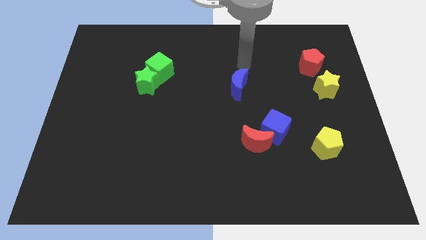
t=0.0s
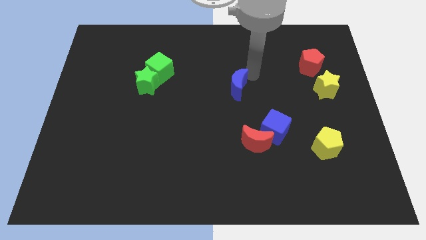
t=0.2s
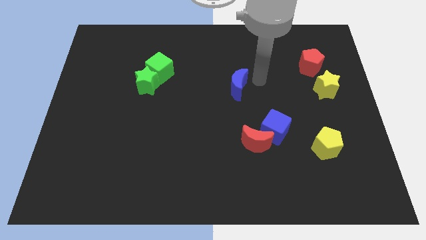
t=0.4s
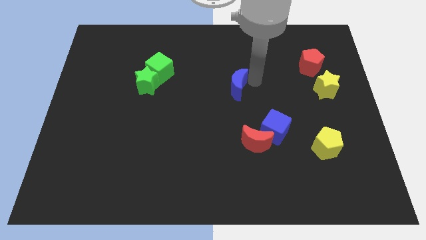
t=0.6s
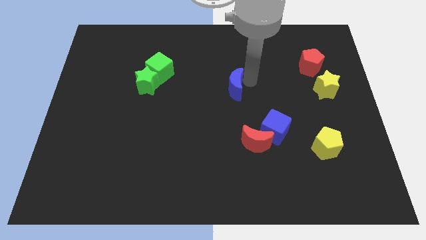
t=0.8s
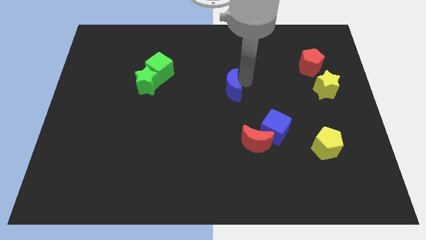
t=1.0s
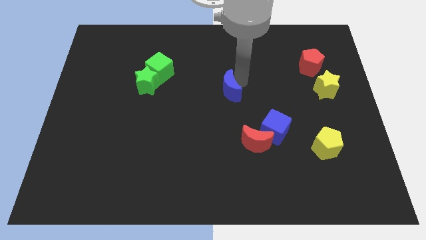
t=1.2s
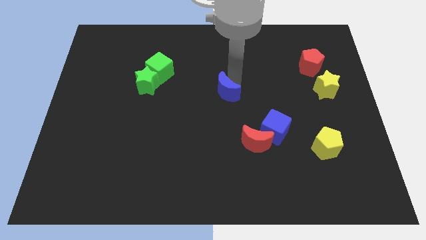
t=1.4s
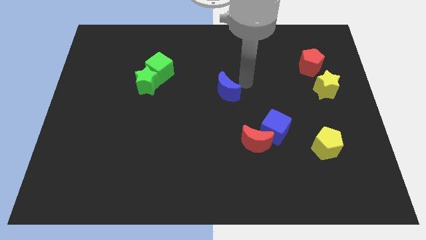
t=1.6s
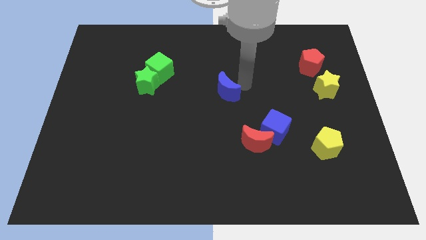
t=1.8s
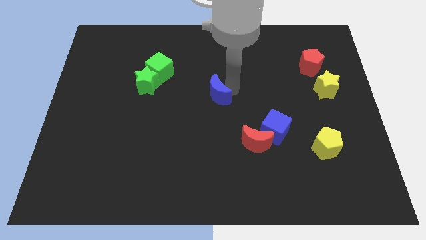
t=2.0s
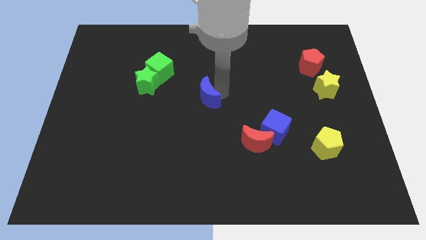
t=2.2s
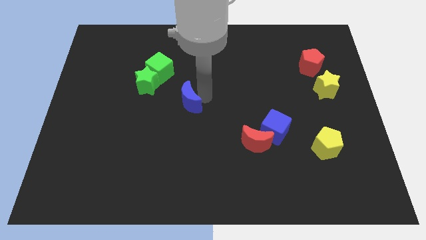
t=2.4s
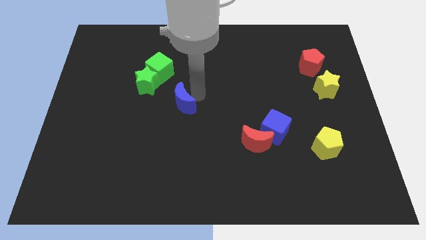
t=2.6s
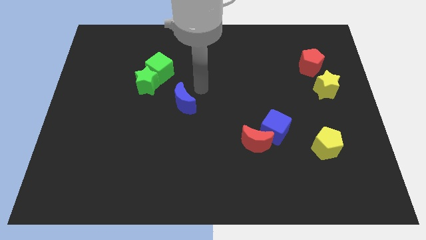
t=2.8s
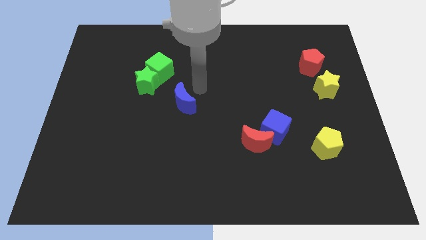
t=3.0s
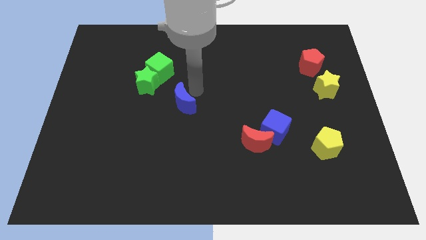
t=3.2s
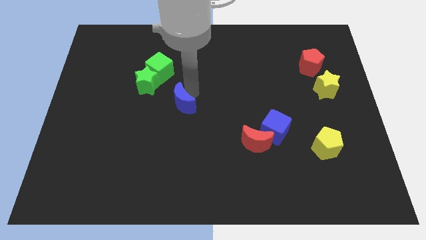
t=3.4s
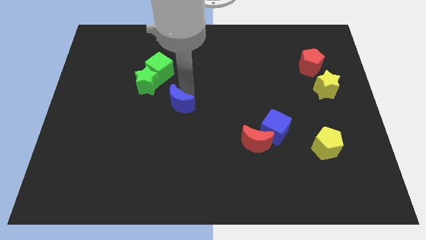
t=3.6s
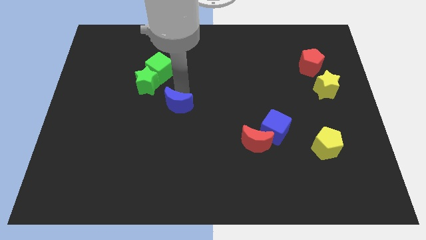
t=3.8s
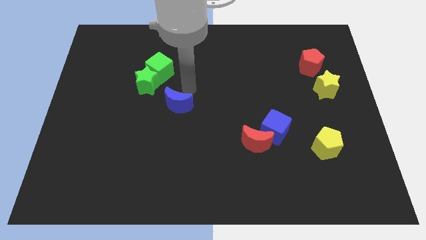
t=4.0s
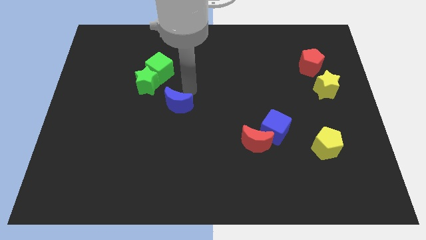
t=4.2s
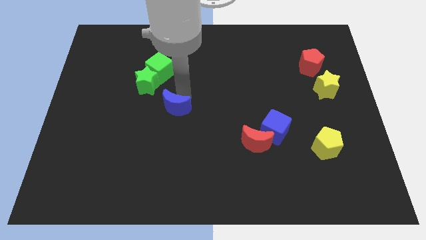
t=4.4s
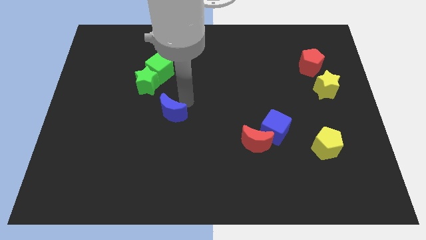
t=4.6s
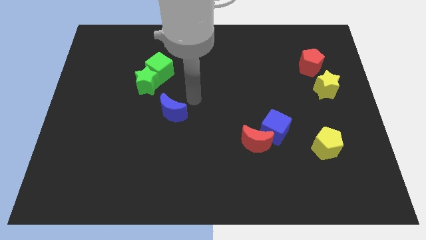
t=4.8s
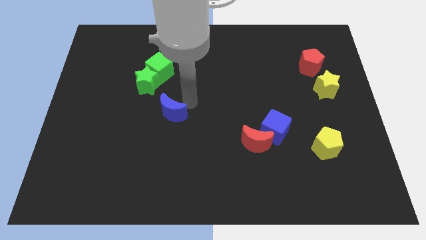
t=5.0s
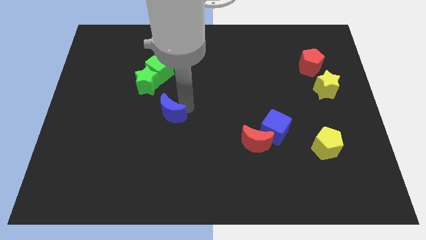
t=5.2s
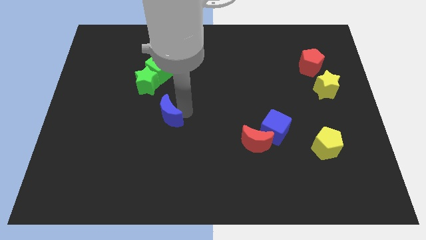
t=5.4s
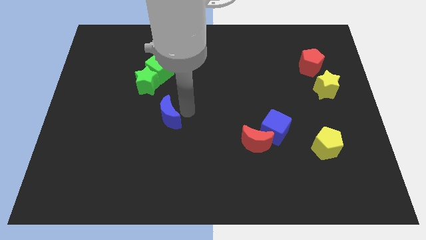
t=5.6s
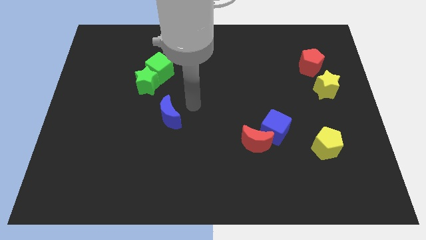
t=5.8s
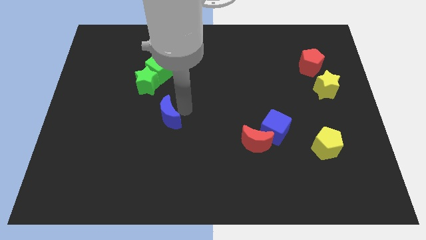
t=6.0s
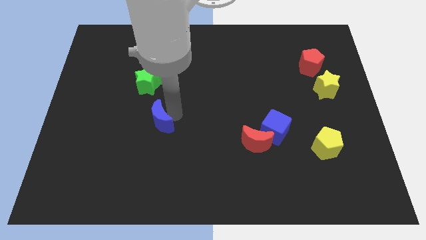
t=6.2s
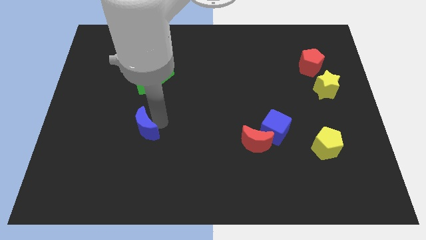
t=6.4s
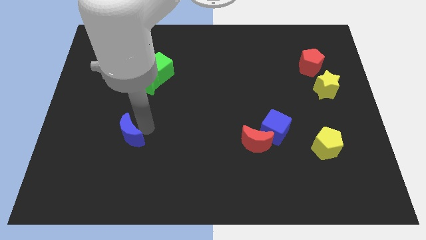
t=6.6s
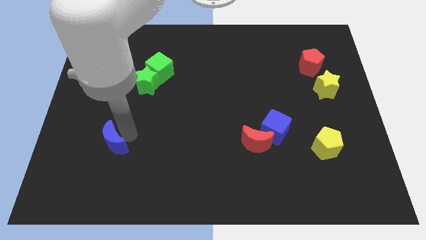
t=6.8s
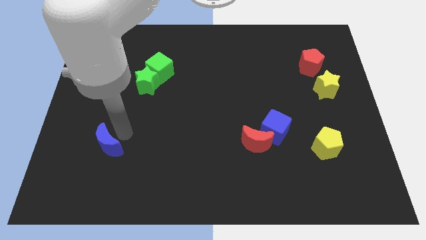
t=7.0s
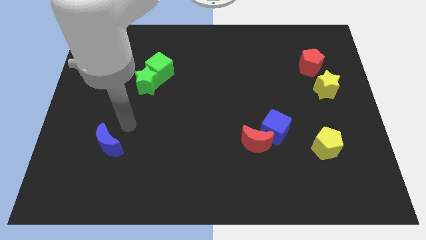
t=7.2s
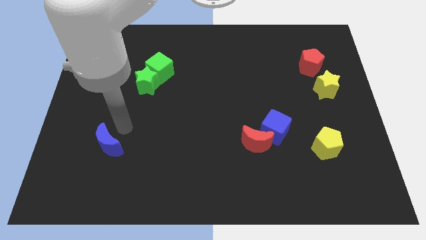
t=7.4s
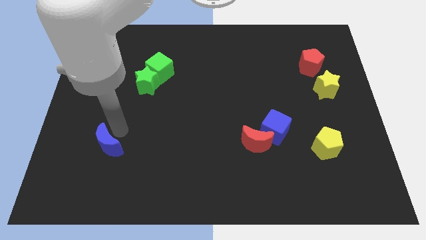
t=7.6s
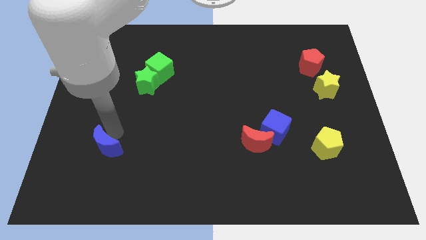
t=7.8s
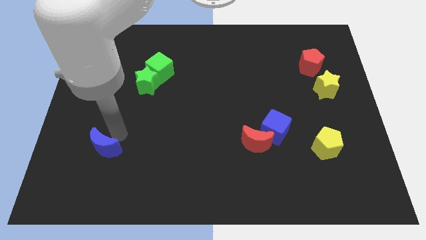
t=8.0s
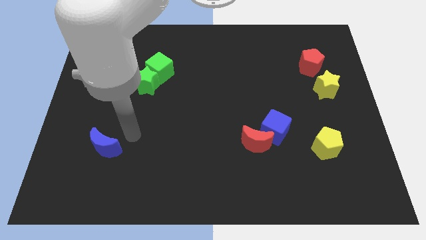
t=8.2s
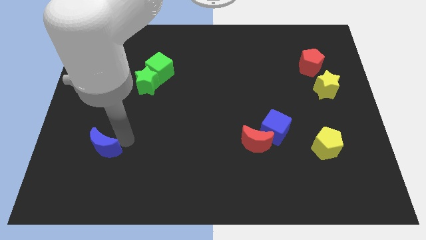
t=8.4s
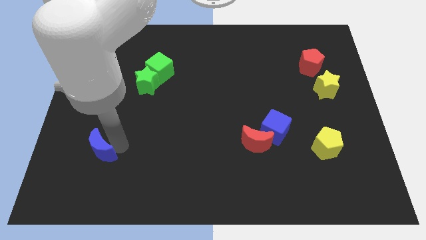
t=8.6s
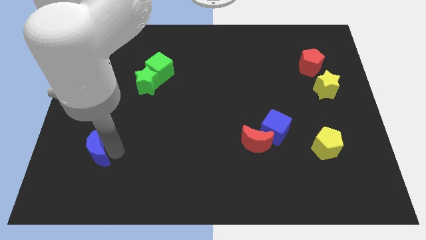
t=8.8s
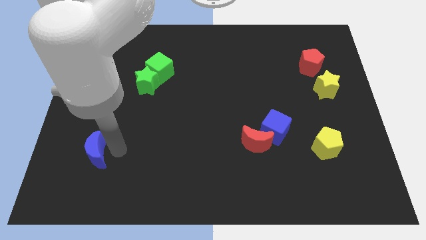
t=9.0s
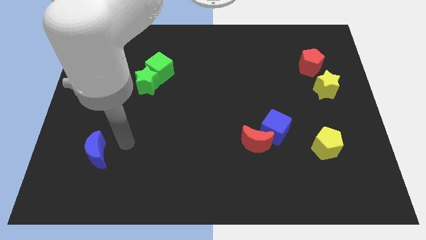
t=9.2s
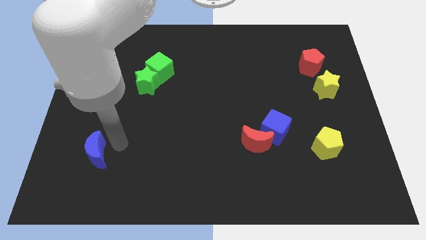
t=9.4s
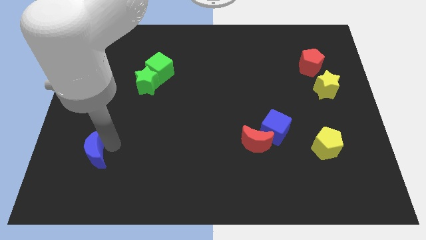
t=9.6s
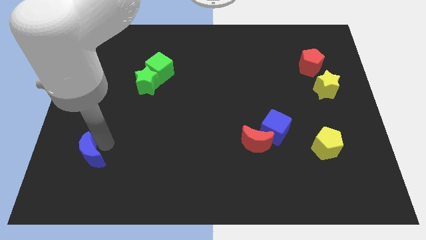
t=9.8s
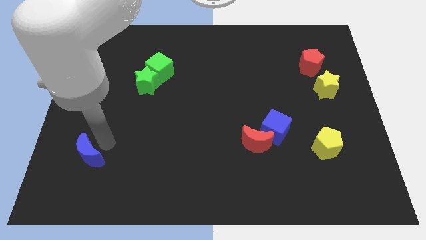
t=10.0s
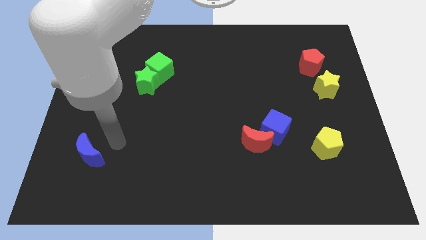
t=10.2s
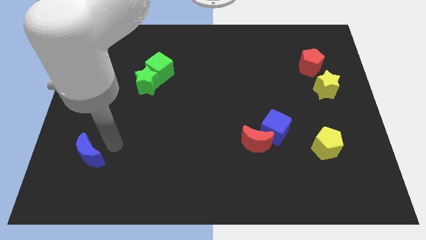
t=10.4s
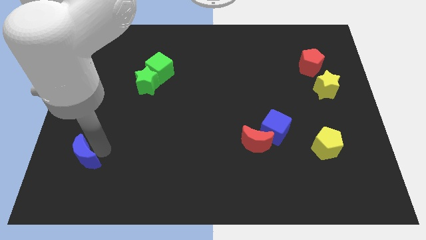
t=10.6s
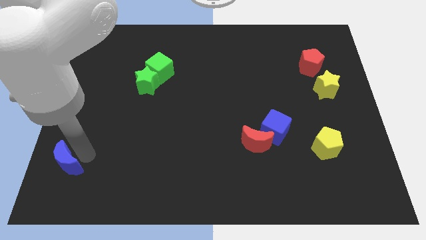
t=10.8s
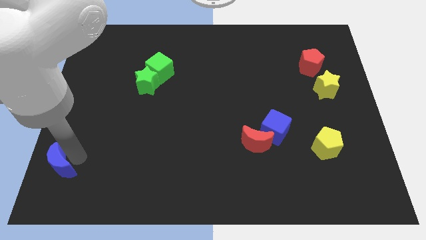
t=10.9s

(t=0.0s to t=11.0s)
move the blue moon to the bottom left corner

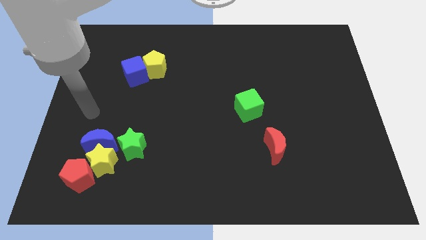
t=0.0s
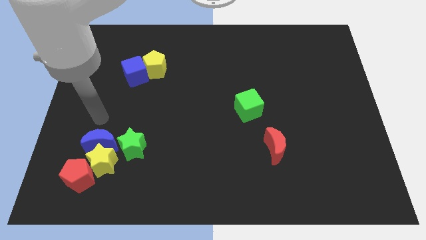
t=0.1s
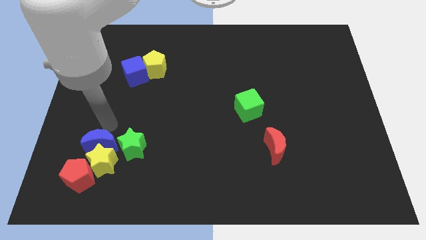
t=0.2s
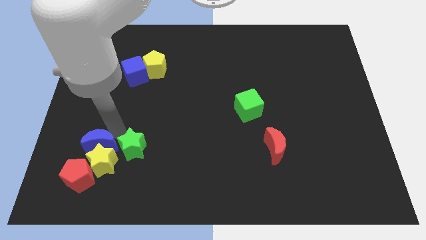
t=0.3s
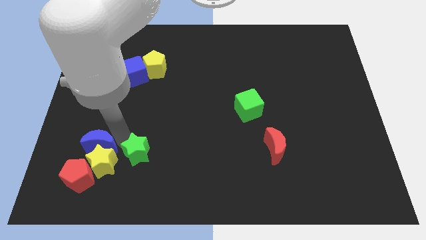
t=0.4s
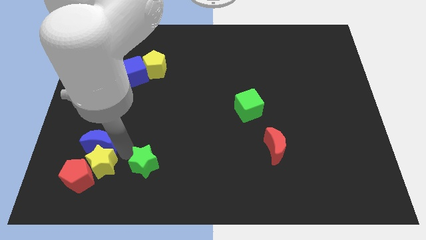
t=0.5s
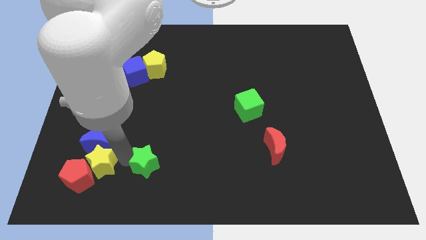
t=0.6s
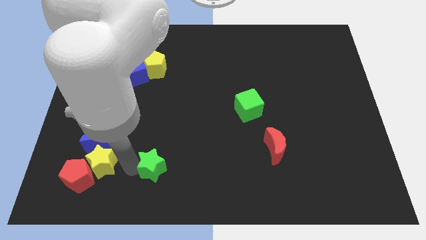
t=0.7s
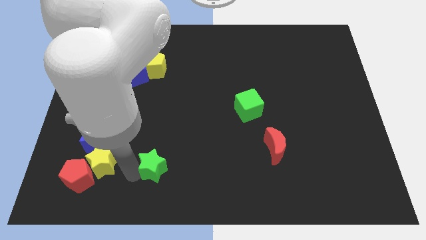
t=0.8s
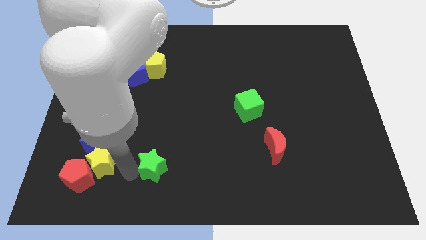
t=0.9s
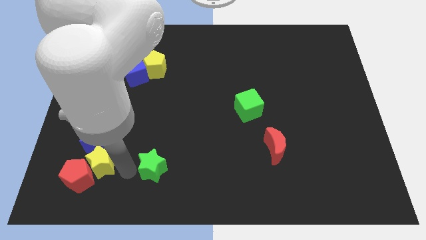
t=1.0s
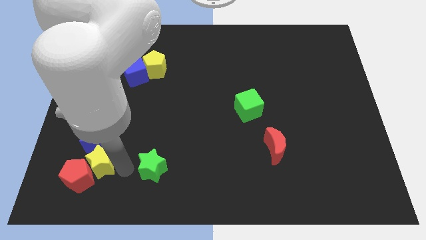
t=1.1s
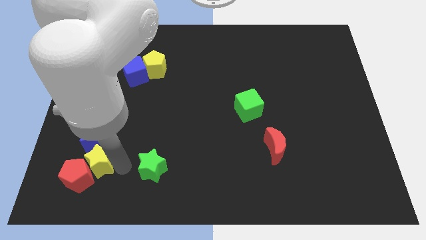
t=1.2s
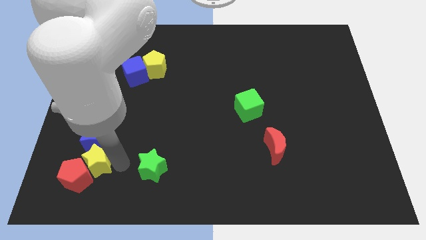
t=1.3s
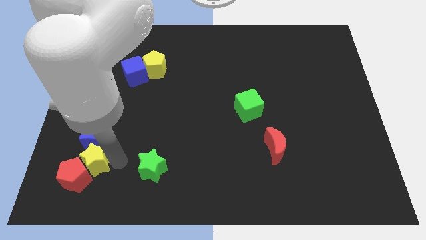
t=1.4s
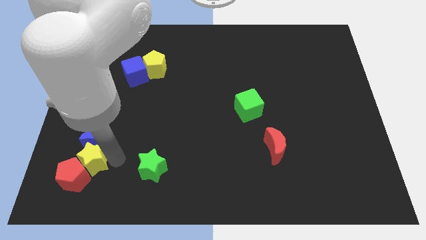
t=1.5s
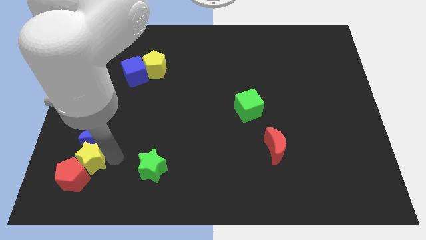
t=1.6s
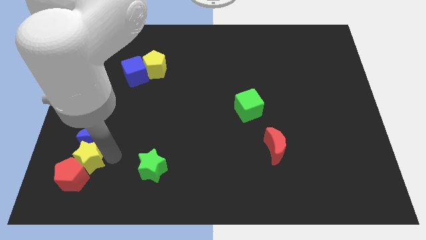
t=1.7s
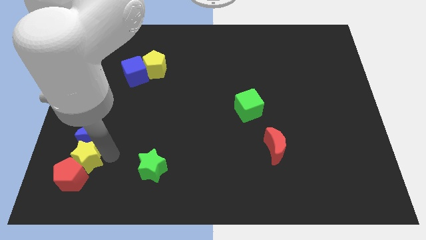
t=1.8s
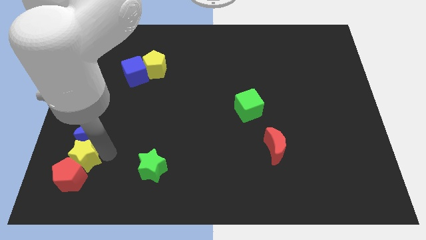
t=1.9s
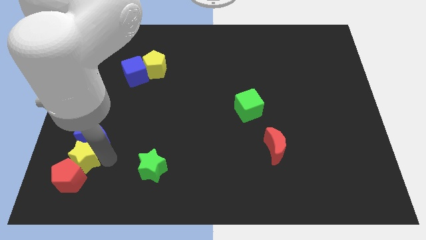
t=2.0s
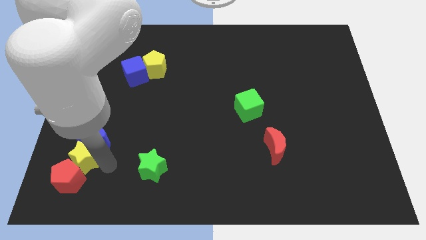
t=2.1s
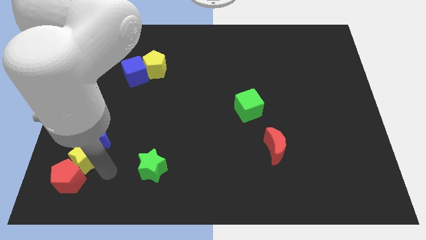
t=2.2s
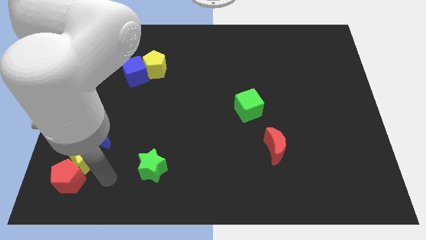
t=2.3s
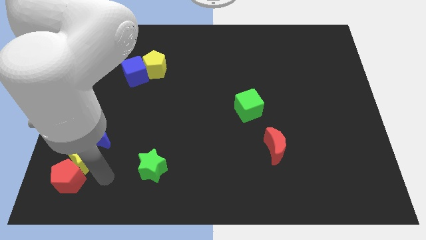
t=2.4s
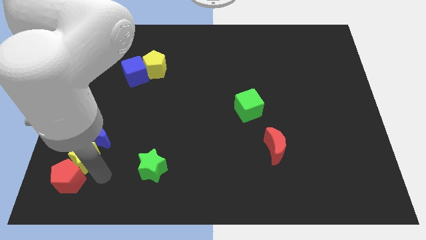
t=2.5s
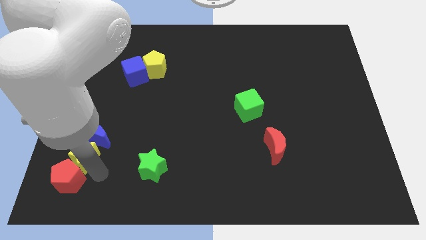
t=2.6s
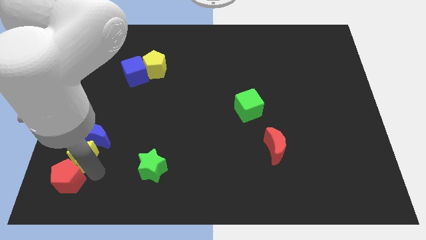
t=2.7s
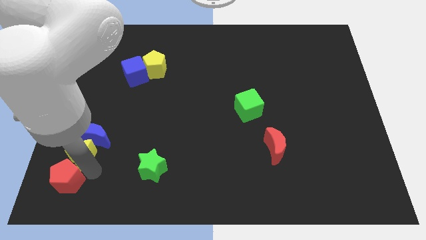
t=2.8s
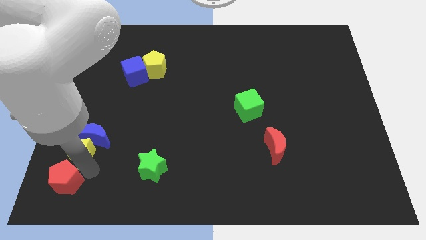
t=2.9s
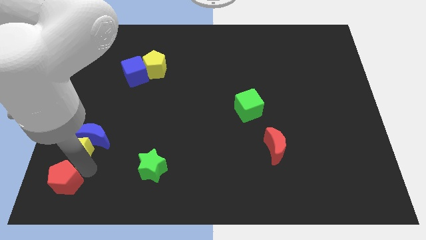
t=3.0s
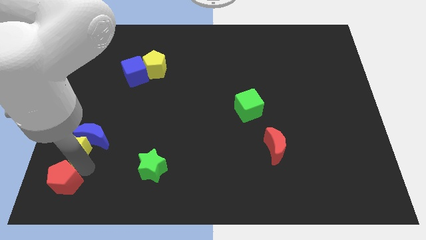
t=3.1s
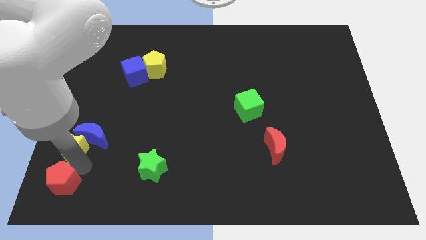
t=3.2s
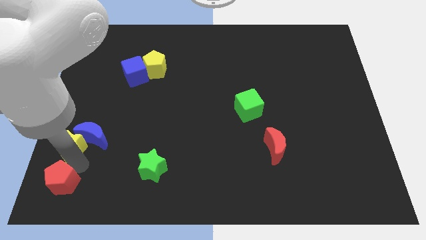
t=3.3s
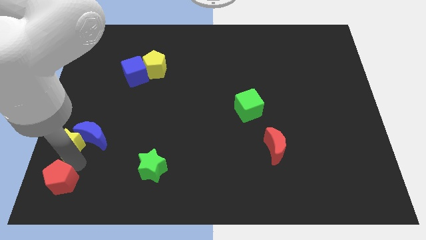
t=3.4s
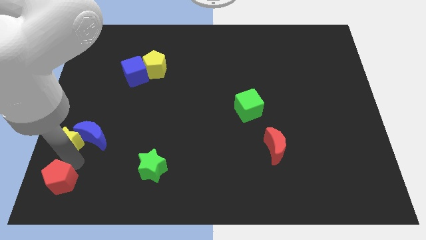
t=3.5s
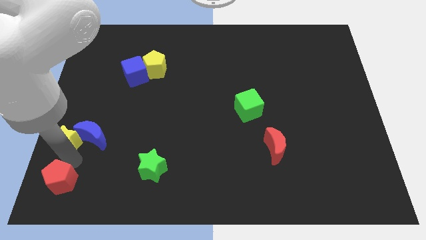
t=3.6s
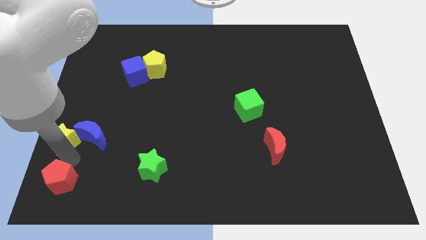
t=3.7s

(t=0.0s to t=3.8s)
move the yellow star to the center left
